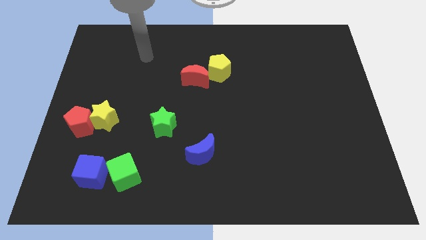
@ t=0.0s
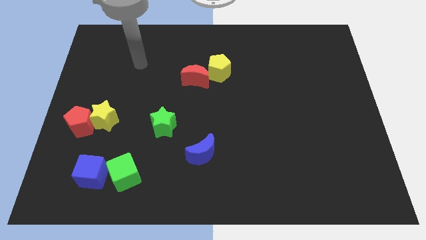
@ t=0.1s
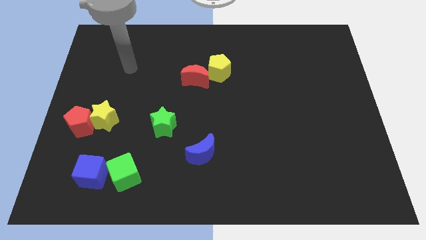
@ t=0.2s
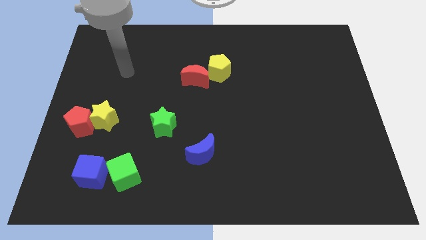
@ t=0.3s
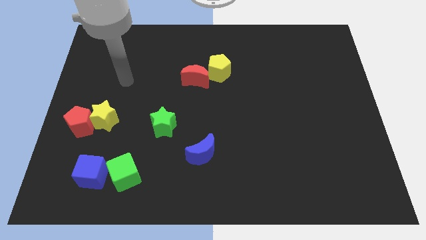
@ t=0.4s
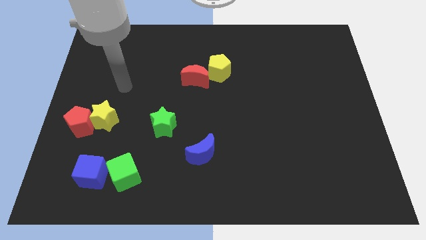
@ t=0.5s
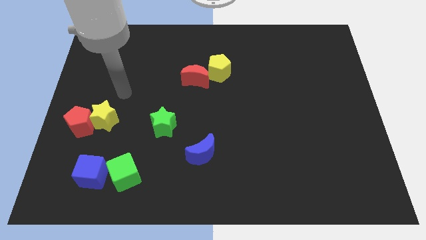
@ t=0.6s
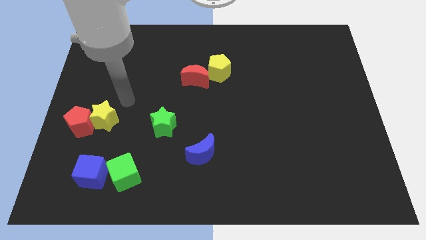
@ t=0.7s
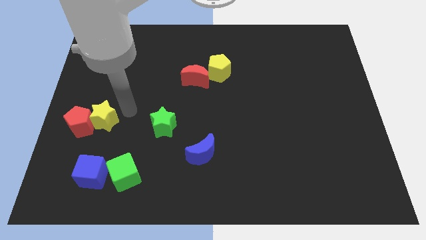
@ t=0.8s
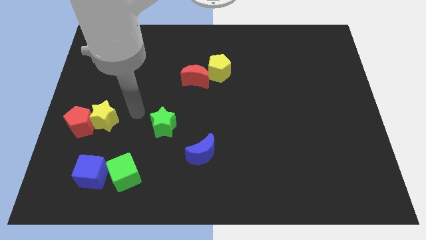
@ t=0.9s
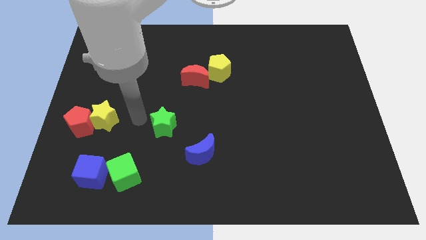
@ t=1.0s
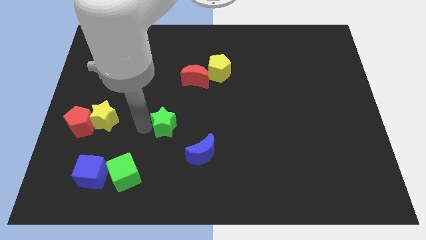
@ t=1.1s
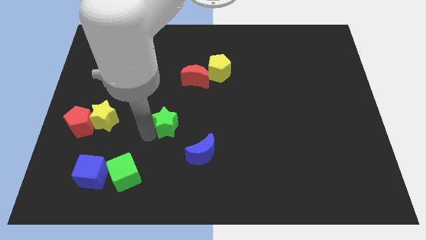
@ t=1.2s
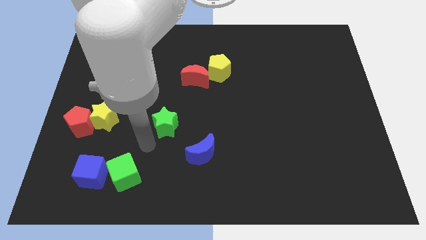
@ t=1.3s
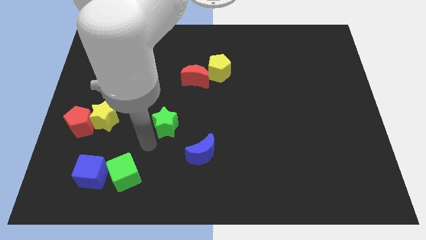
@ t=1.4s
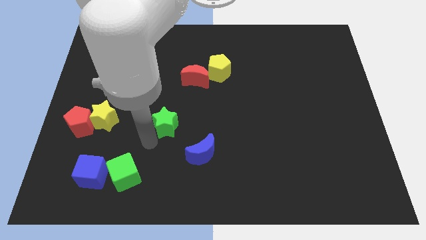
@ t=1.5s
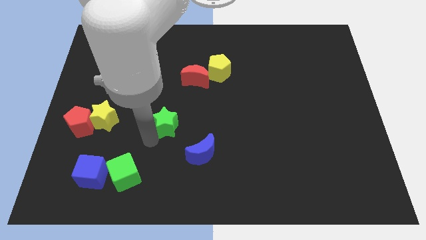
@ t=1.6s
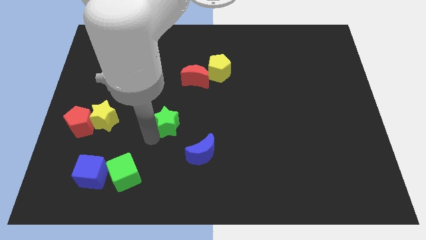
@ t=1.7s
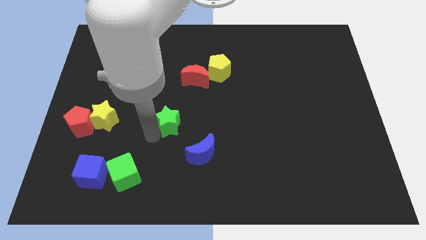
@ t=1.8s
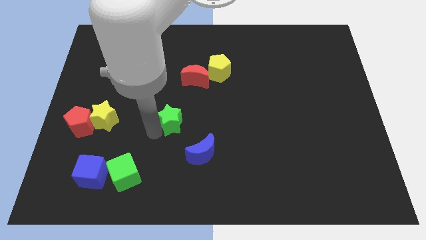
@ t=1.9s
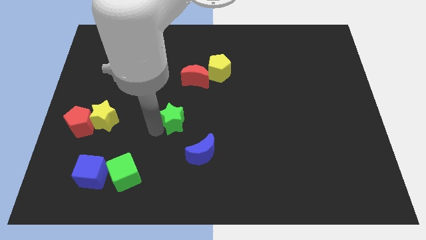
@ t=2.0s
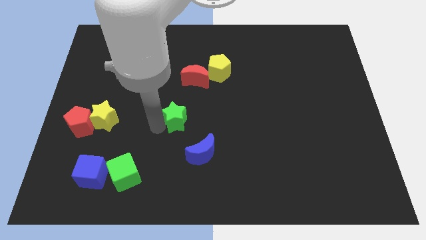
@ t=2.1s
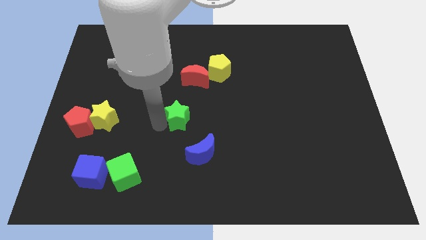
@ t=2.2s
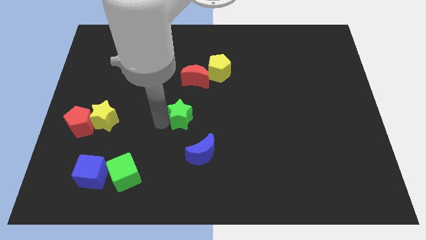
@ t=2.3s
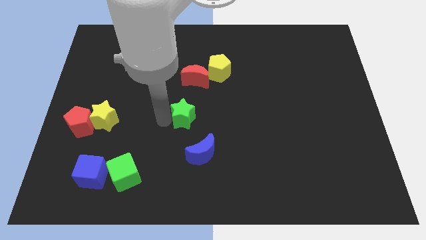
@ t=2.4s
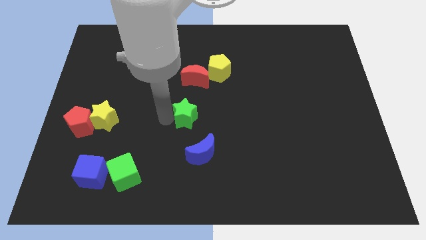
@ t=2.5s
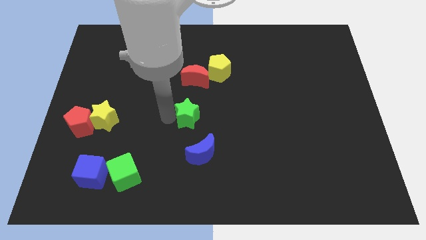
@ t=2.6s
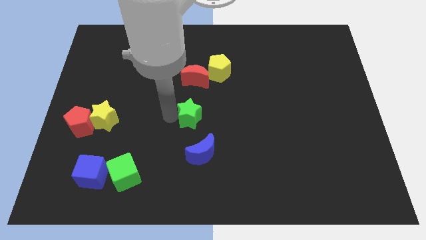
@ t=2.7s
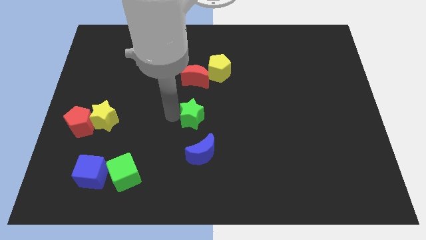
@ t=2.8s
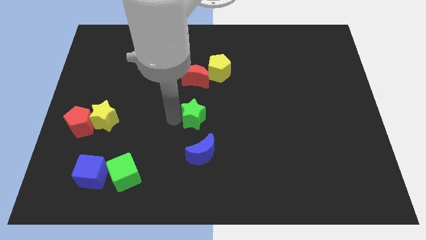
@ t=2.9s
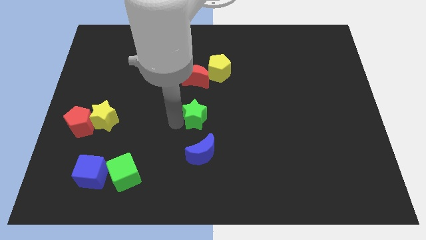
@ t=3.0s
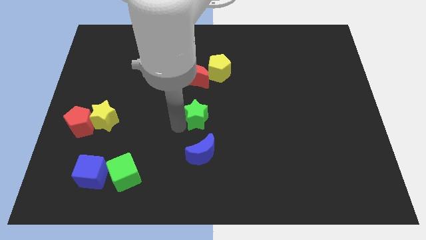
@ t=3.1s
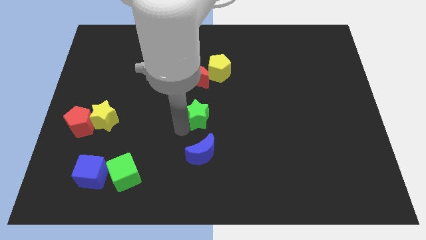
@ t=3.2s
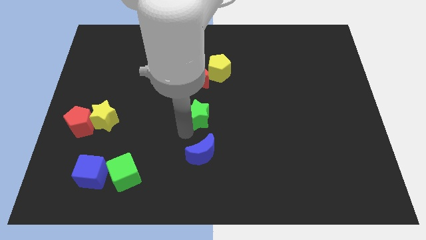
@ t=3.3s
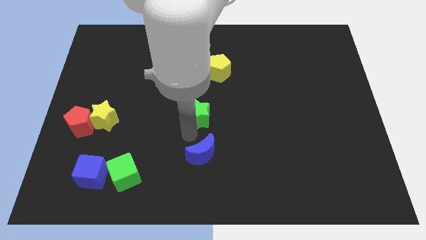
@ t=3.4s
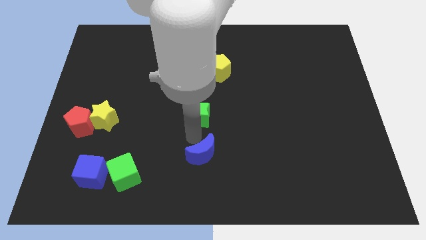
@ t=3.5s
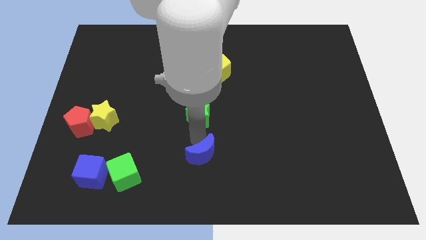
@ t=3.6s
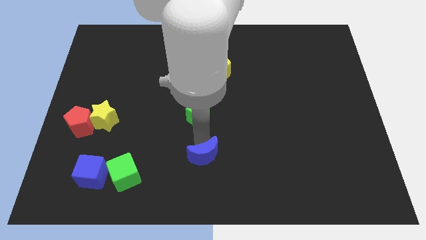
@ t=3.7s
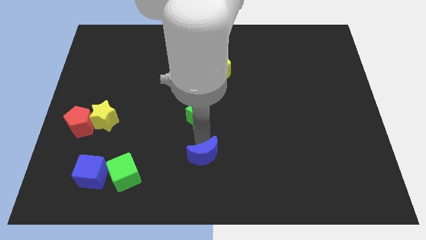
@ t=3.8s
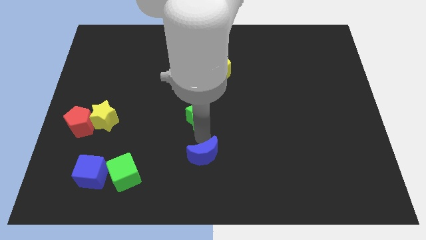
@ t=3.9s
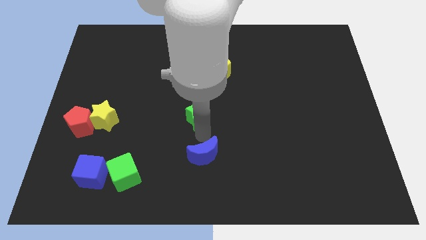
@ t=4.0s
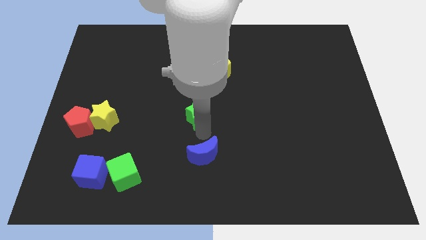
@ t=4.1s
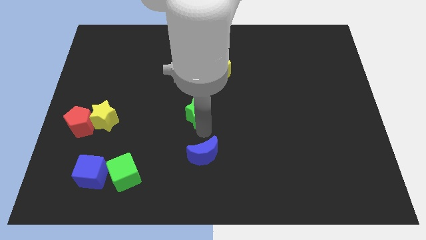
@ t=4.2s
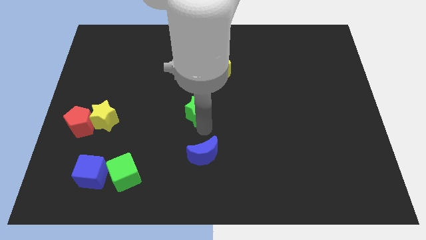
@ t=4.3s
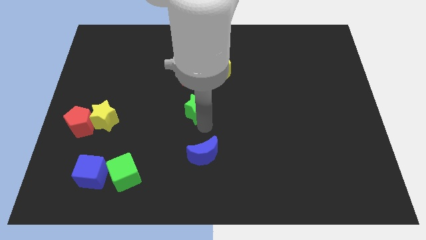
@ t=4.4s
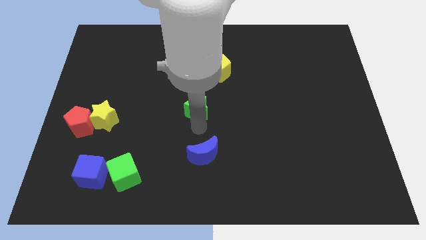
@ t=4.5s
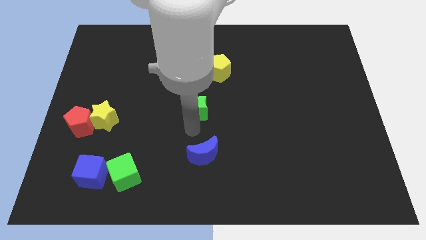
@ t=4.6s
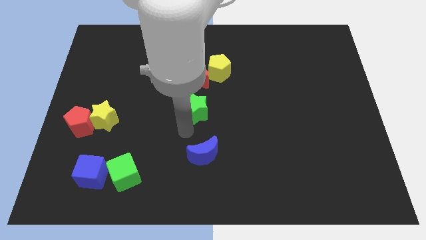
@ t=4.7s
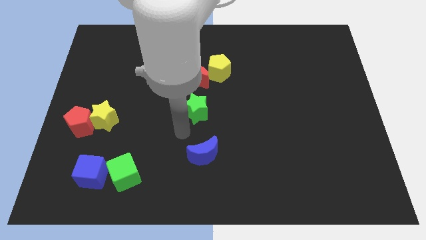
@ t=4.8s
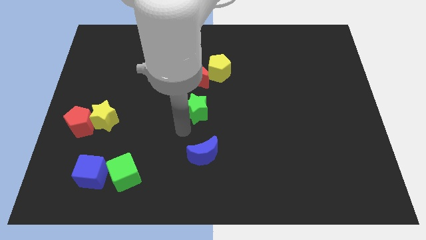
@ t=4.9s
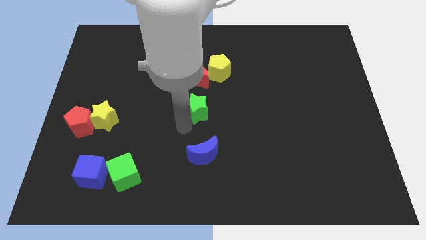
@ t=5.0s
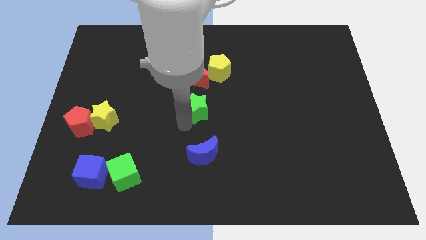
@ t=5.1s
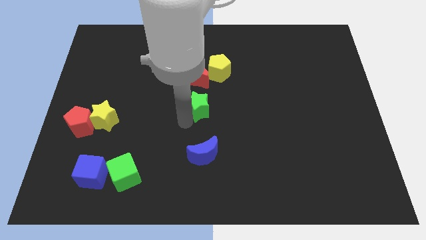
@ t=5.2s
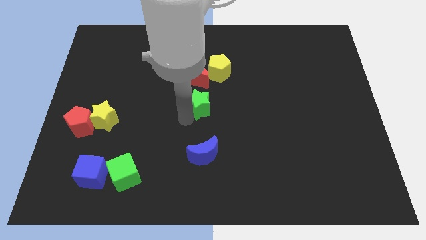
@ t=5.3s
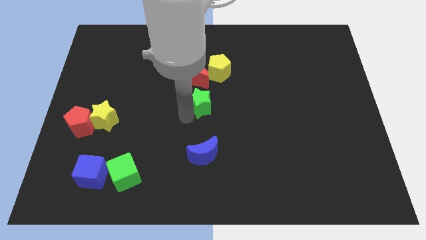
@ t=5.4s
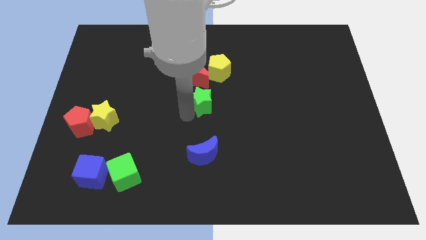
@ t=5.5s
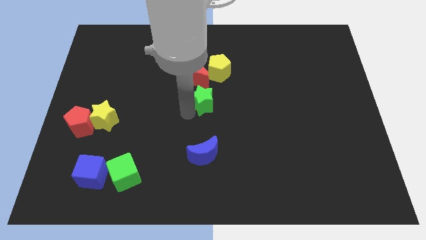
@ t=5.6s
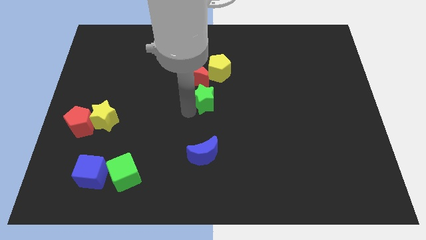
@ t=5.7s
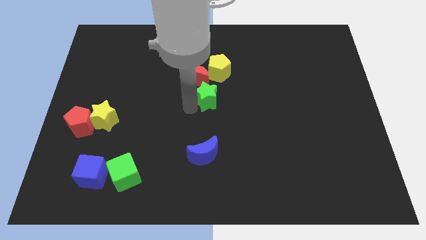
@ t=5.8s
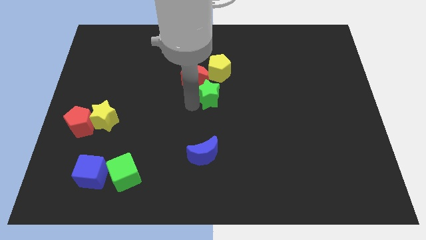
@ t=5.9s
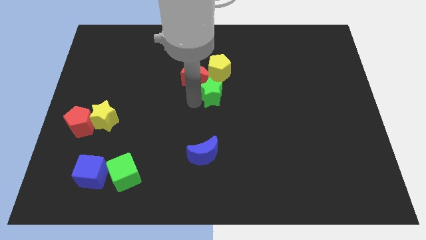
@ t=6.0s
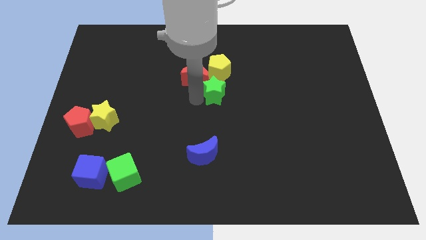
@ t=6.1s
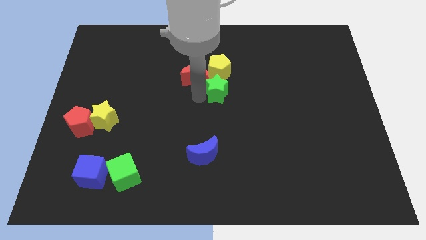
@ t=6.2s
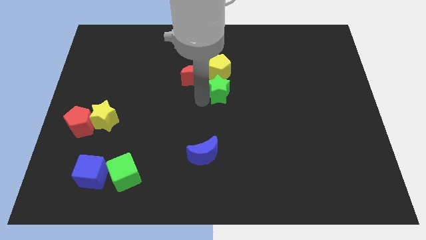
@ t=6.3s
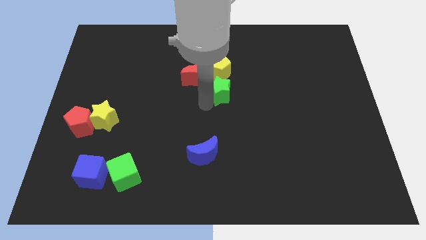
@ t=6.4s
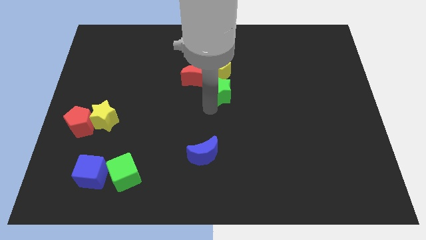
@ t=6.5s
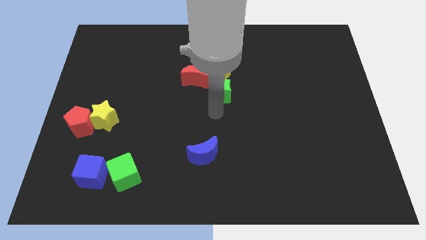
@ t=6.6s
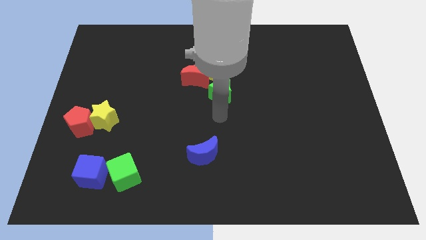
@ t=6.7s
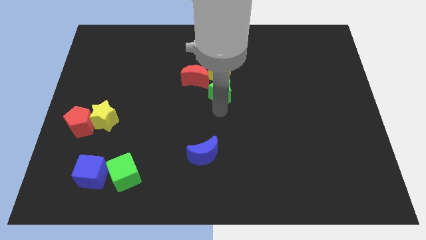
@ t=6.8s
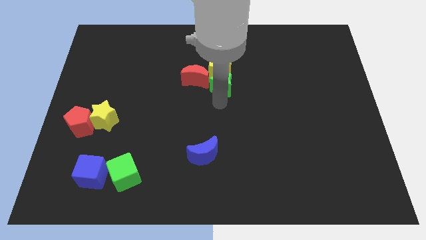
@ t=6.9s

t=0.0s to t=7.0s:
put the green star to the yellow pentagon
